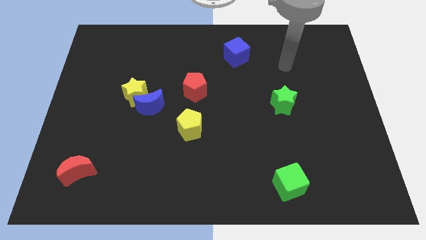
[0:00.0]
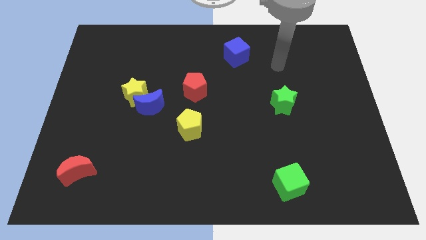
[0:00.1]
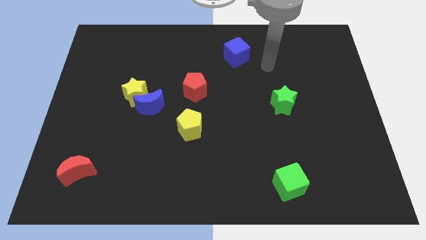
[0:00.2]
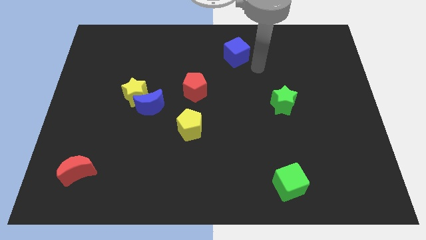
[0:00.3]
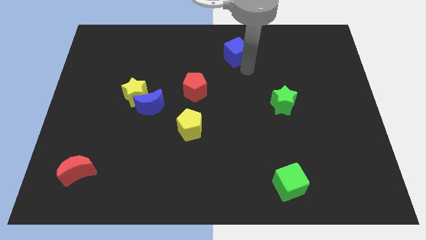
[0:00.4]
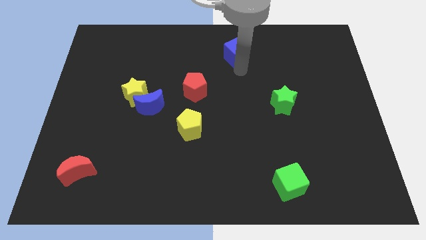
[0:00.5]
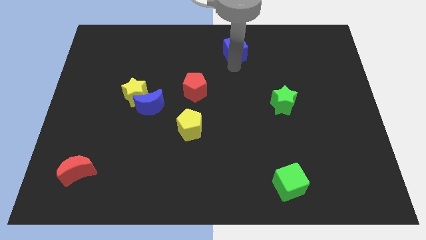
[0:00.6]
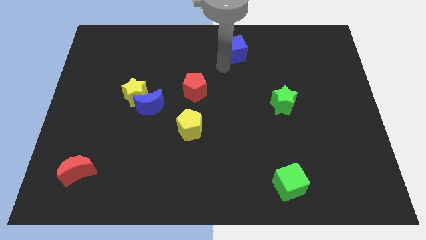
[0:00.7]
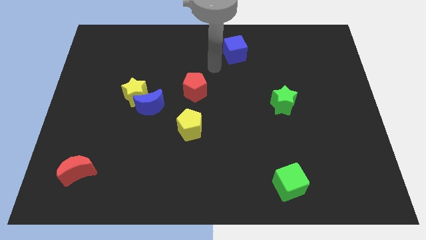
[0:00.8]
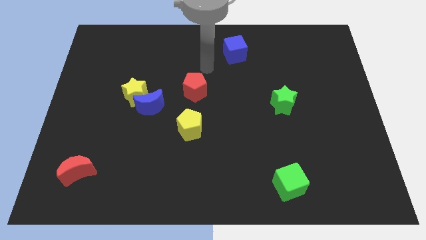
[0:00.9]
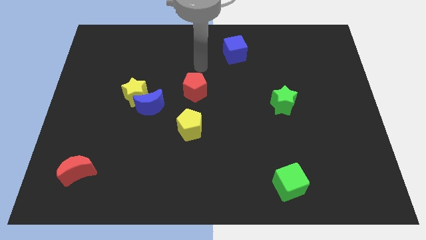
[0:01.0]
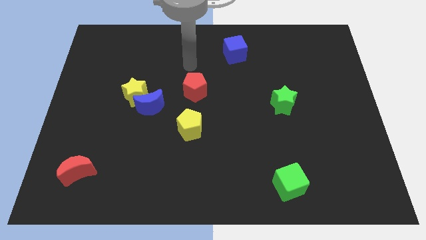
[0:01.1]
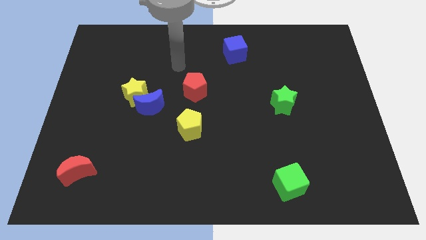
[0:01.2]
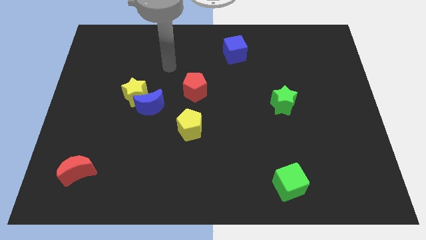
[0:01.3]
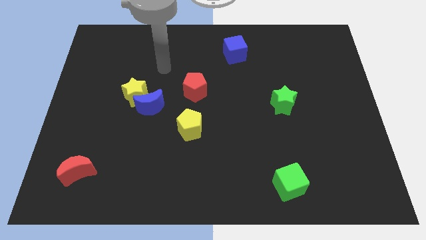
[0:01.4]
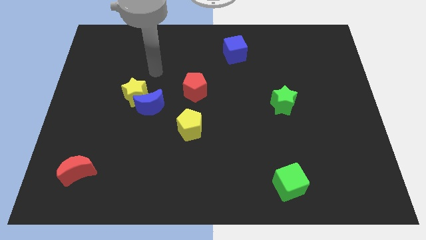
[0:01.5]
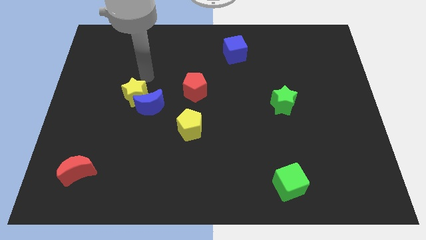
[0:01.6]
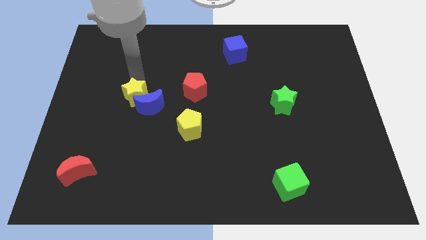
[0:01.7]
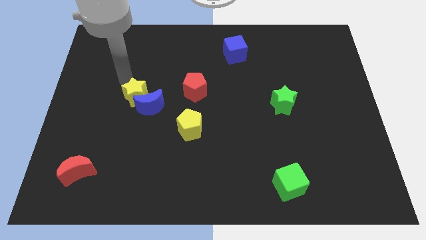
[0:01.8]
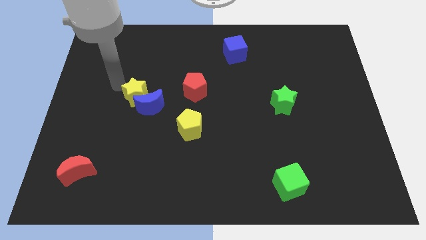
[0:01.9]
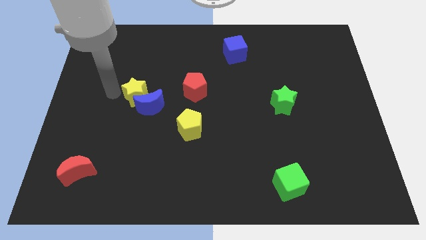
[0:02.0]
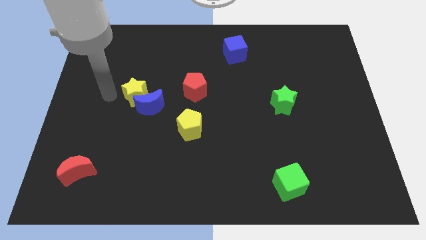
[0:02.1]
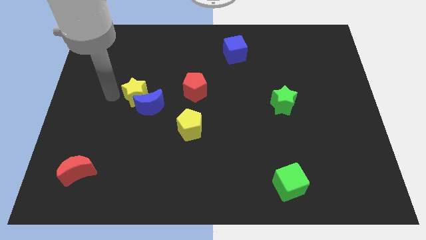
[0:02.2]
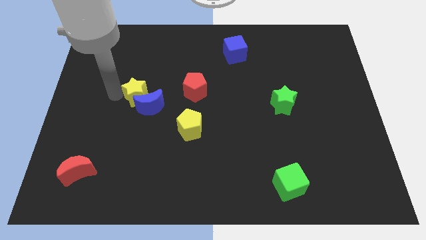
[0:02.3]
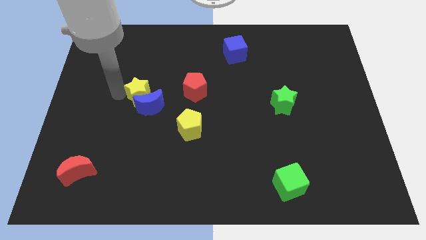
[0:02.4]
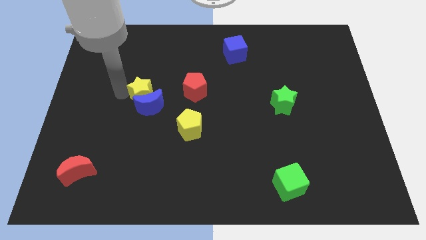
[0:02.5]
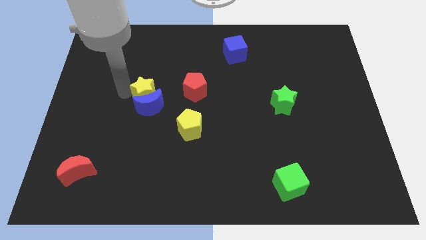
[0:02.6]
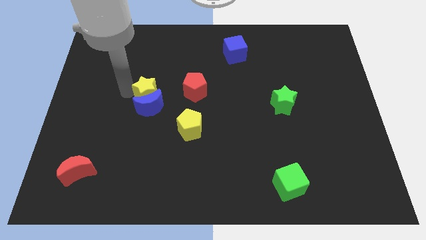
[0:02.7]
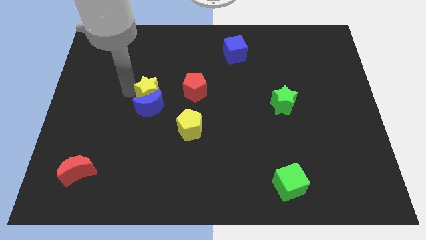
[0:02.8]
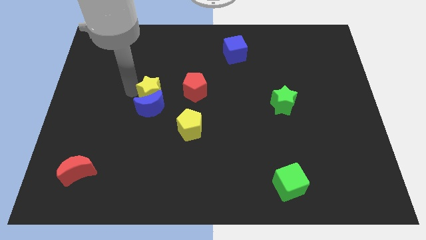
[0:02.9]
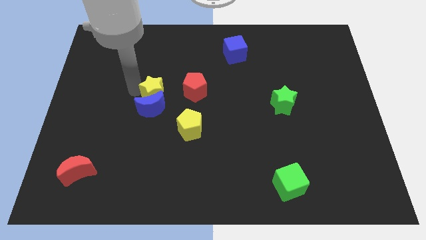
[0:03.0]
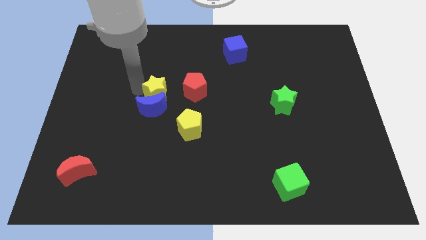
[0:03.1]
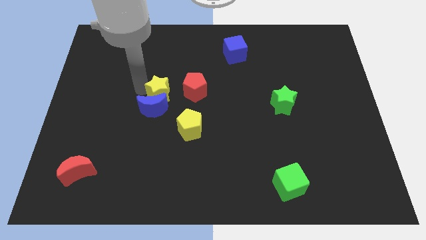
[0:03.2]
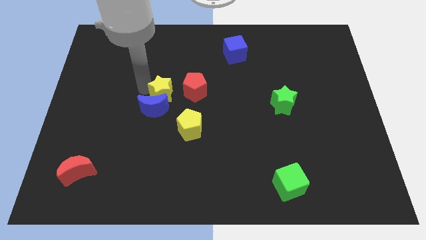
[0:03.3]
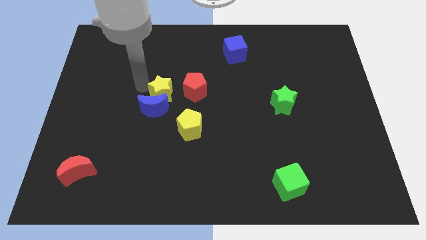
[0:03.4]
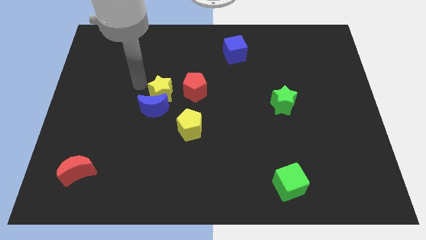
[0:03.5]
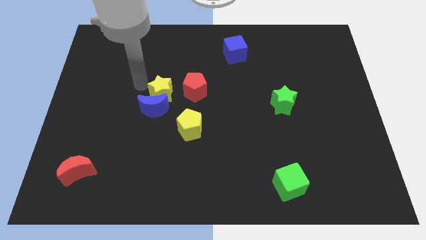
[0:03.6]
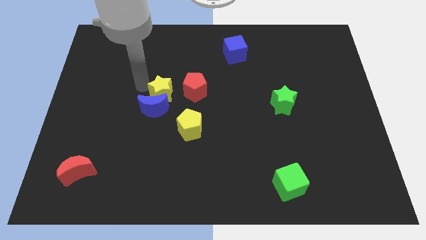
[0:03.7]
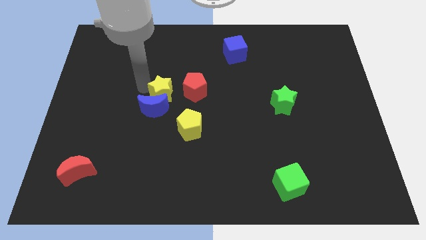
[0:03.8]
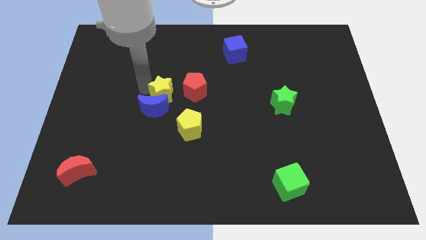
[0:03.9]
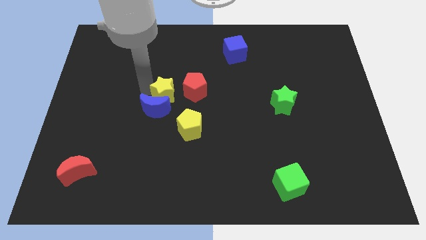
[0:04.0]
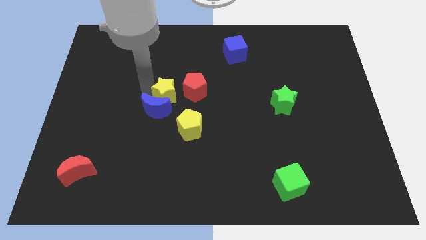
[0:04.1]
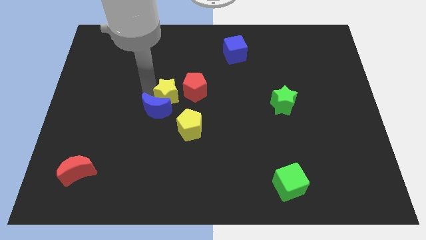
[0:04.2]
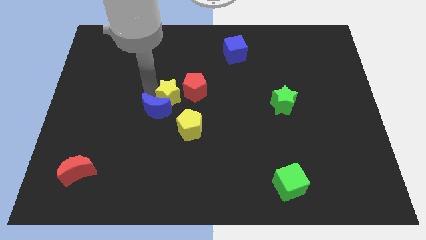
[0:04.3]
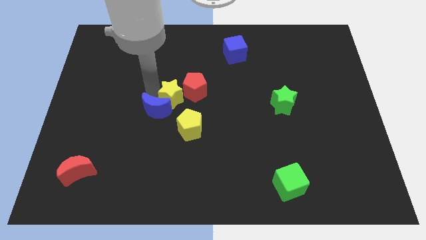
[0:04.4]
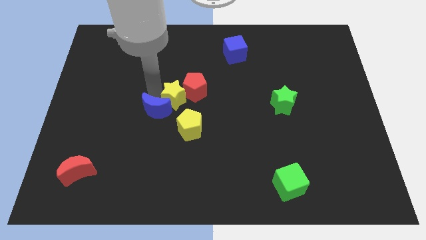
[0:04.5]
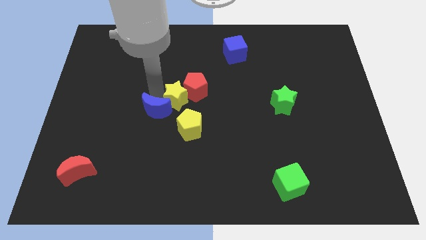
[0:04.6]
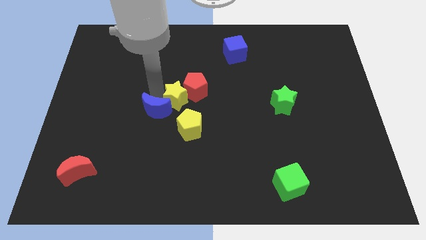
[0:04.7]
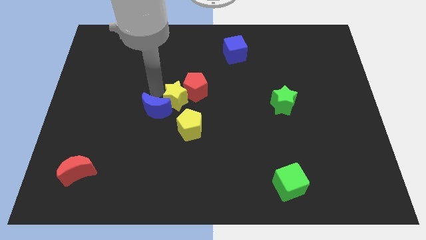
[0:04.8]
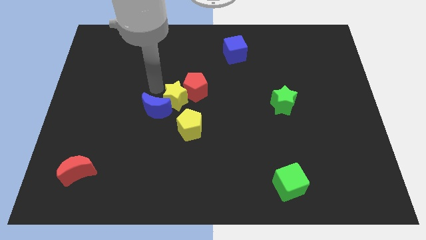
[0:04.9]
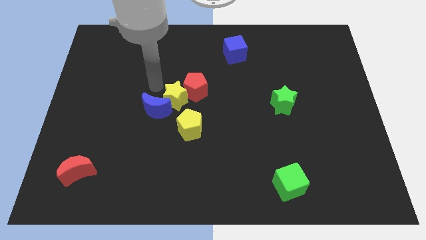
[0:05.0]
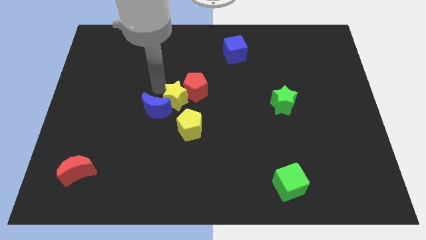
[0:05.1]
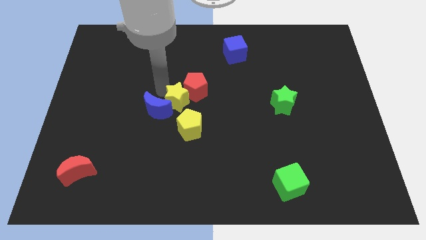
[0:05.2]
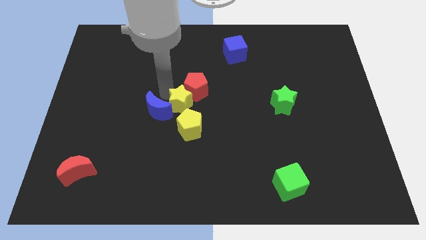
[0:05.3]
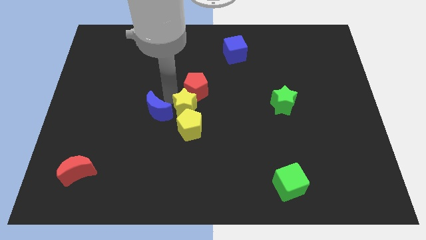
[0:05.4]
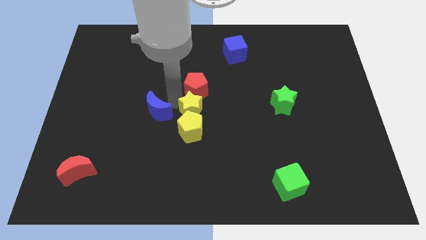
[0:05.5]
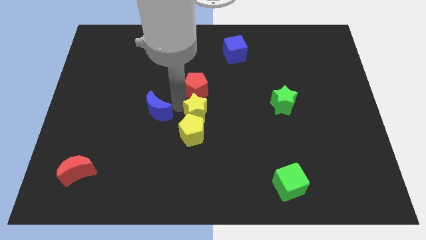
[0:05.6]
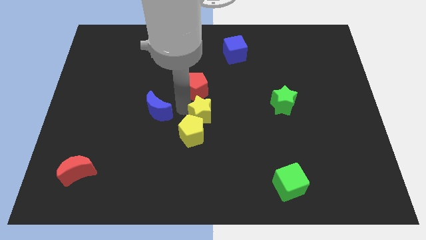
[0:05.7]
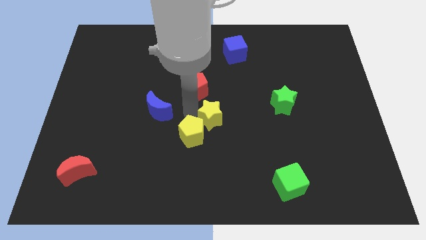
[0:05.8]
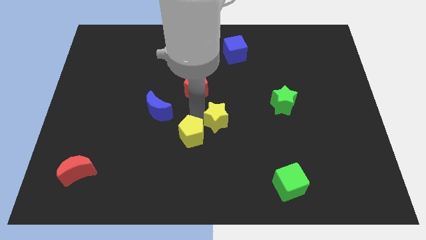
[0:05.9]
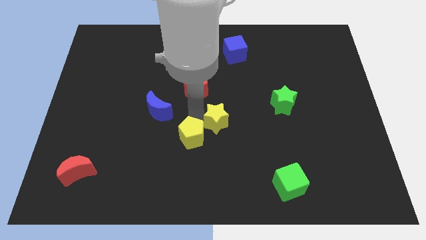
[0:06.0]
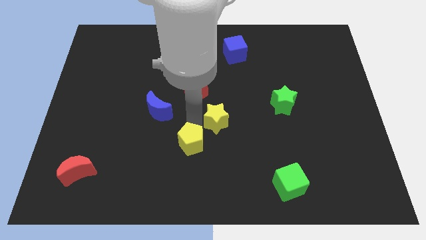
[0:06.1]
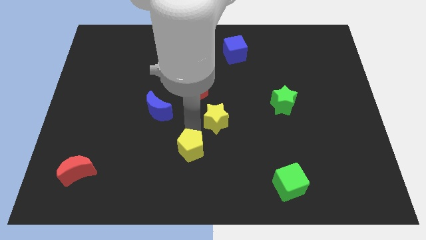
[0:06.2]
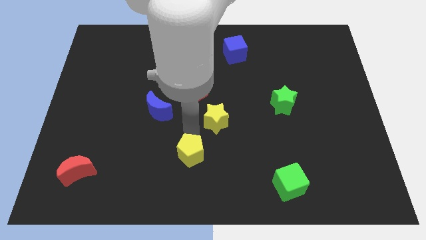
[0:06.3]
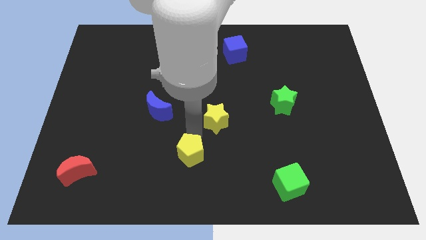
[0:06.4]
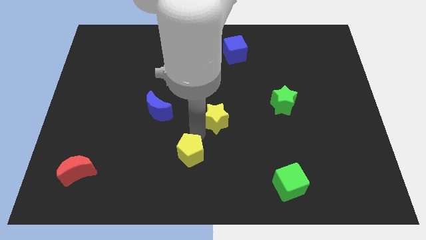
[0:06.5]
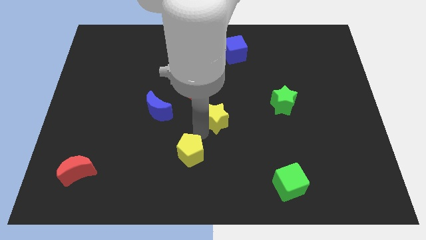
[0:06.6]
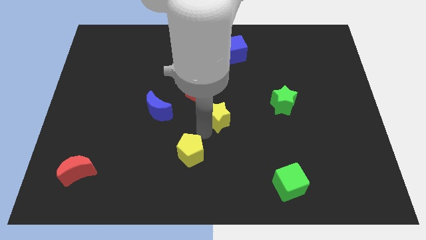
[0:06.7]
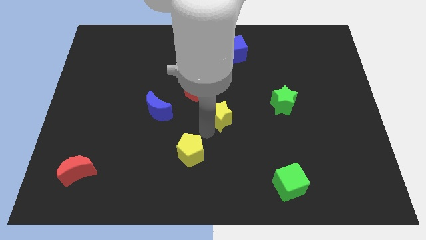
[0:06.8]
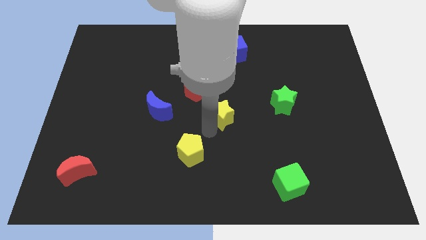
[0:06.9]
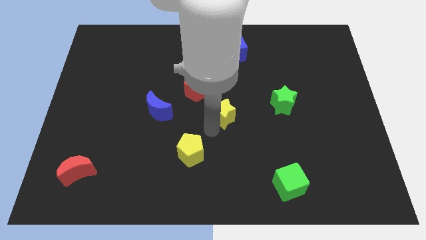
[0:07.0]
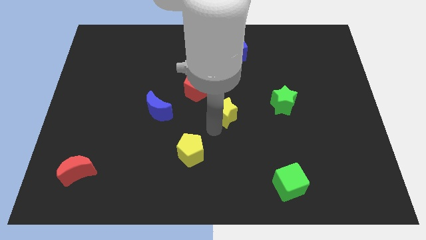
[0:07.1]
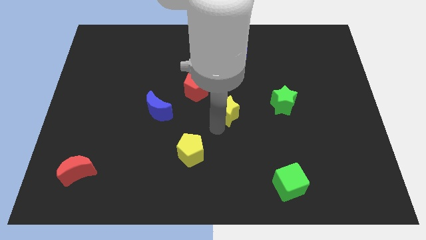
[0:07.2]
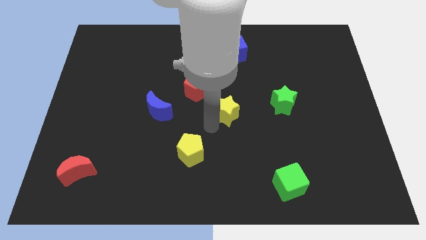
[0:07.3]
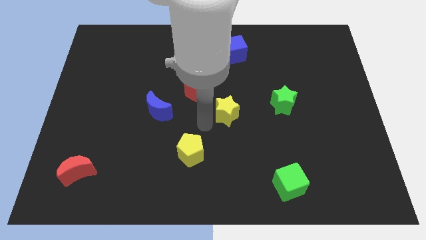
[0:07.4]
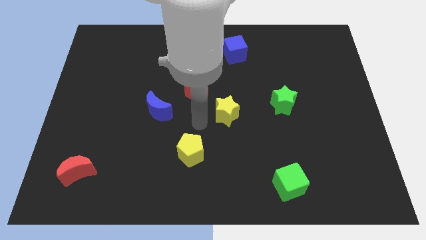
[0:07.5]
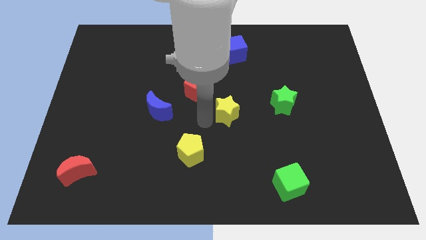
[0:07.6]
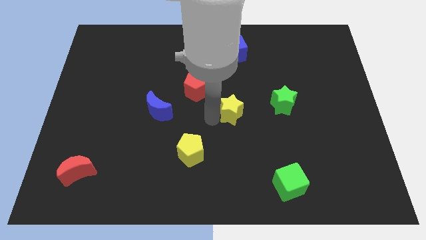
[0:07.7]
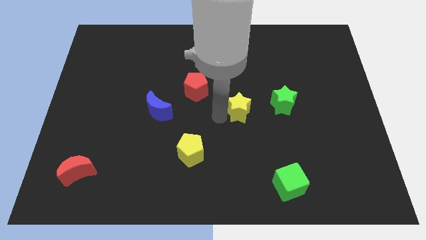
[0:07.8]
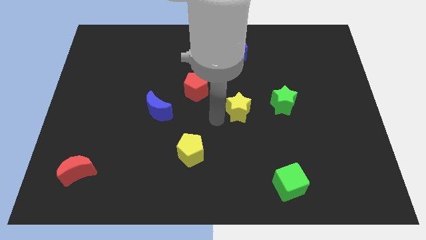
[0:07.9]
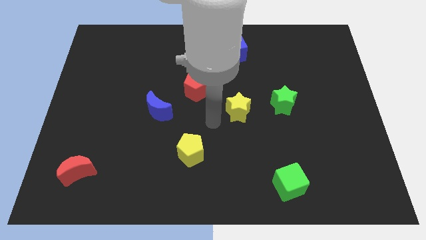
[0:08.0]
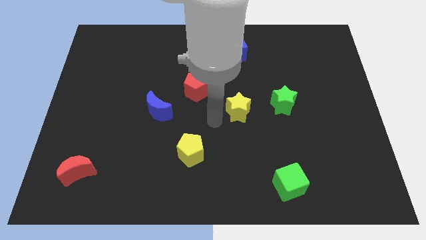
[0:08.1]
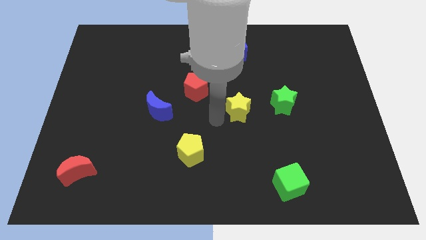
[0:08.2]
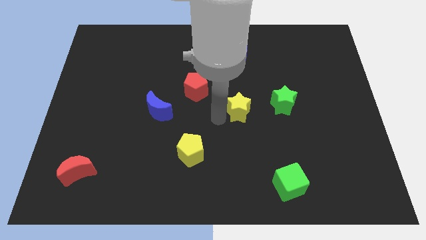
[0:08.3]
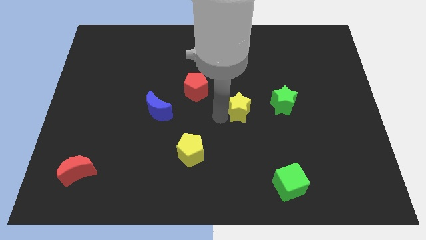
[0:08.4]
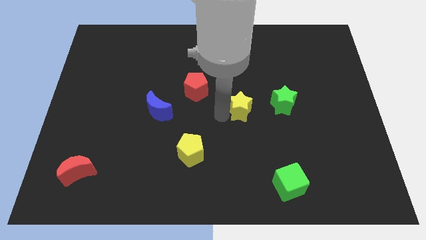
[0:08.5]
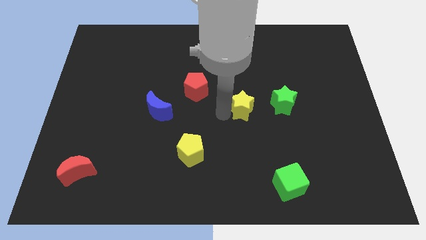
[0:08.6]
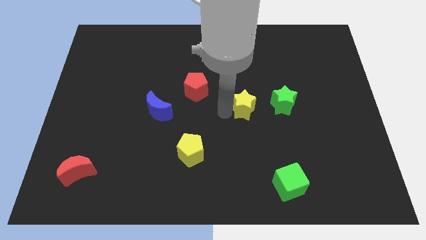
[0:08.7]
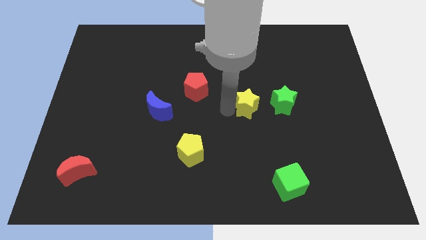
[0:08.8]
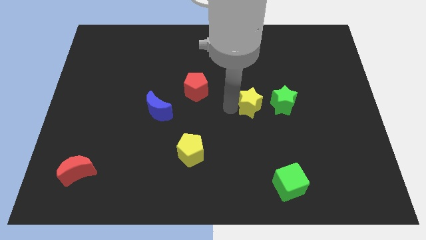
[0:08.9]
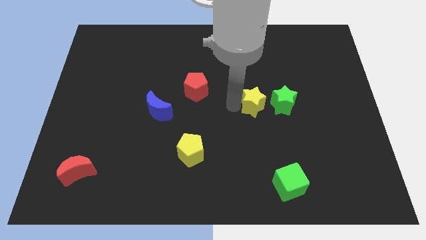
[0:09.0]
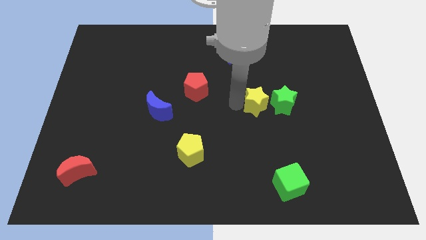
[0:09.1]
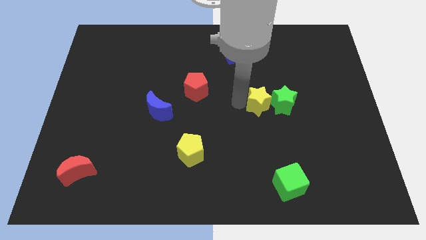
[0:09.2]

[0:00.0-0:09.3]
slide the yellow star towards the green star
